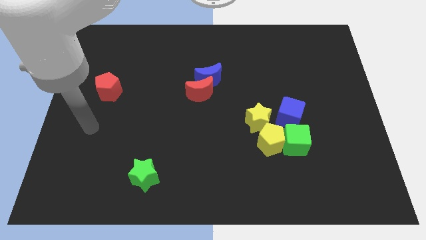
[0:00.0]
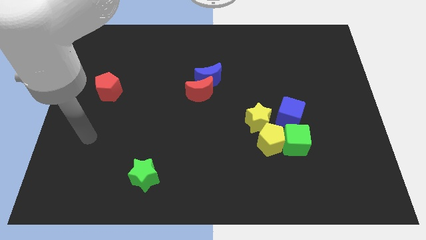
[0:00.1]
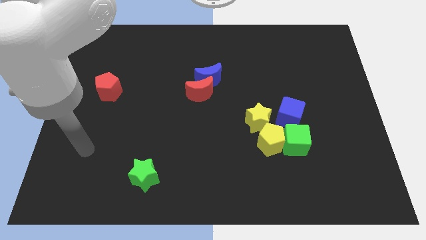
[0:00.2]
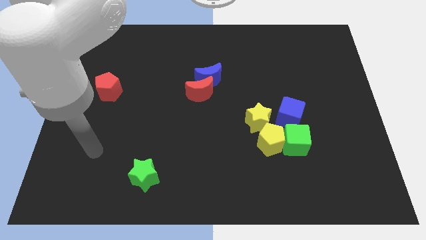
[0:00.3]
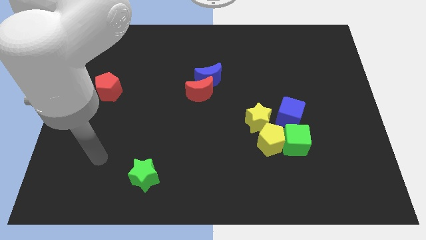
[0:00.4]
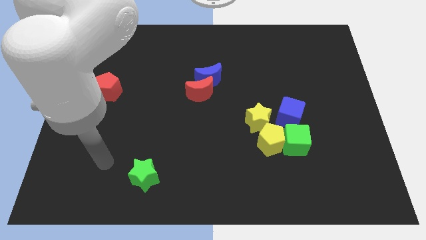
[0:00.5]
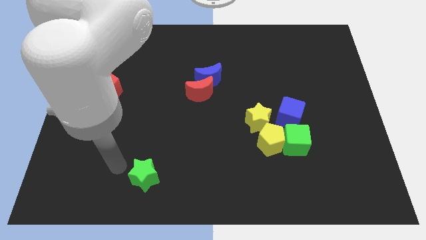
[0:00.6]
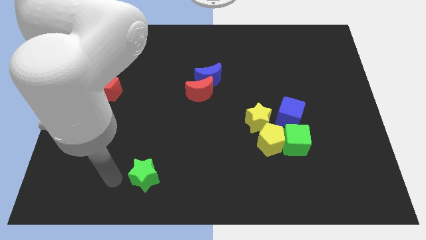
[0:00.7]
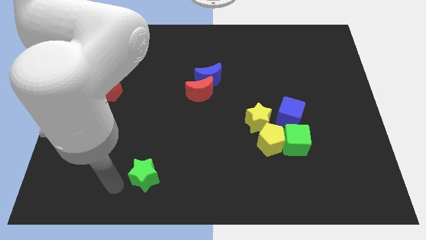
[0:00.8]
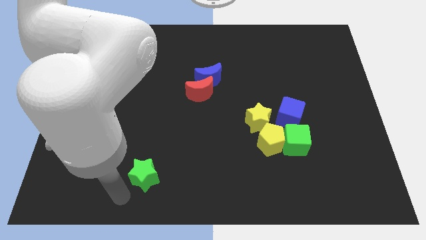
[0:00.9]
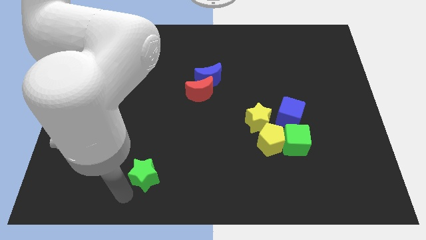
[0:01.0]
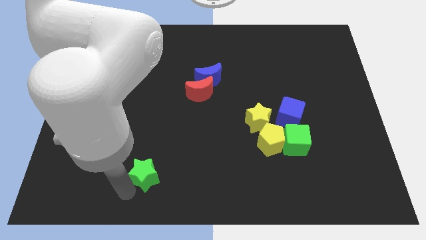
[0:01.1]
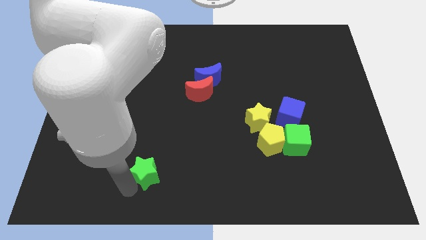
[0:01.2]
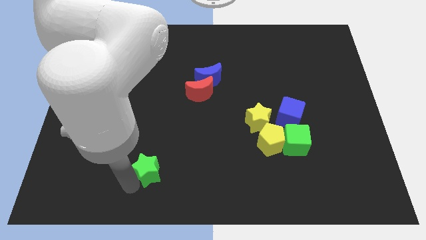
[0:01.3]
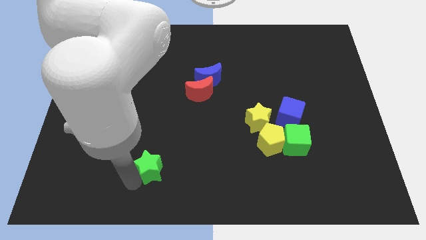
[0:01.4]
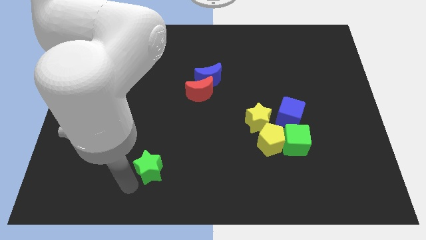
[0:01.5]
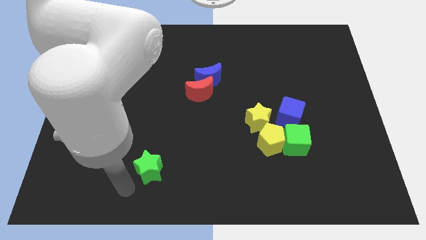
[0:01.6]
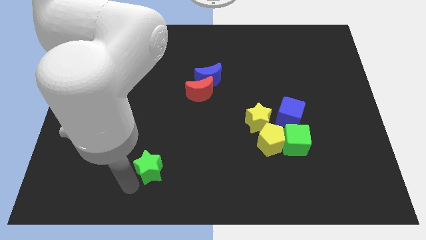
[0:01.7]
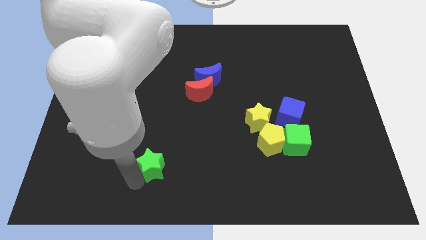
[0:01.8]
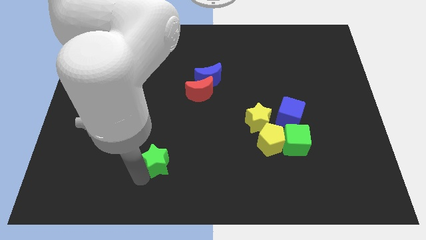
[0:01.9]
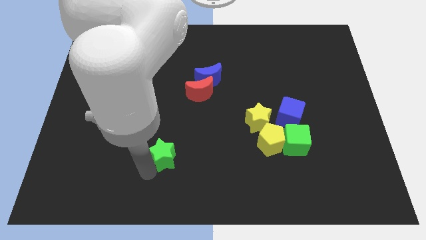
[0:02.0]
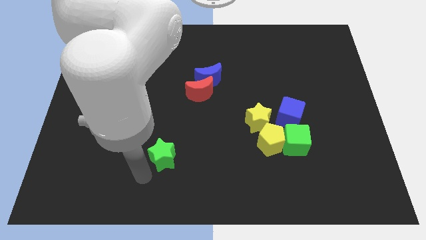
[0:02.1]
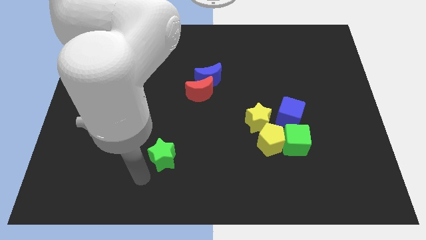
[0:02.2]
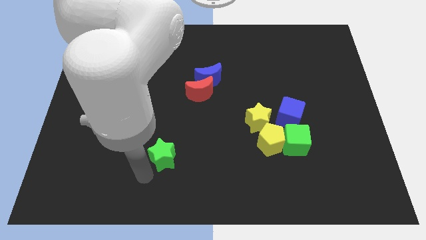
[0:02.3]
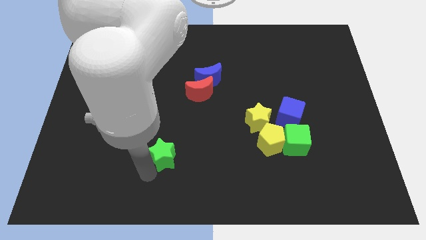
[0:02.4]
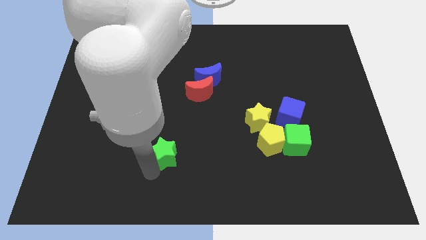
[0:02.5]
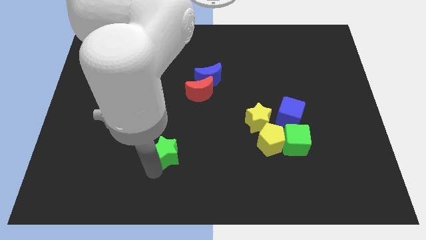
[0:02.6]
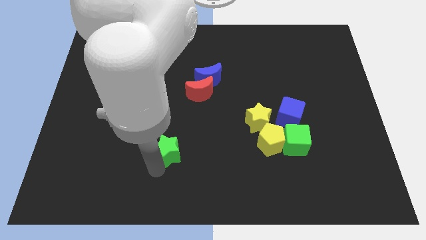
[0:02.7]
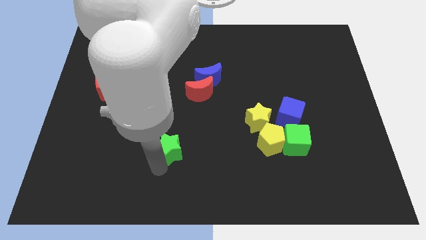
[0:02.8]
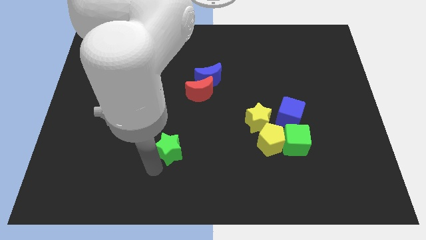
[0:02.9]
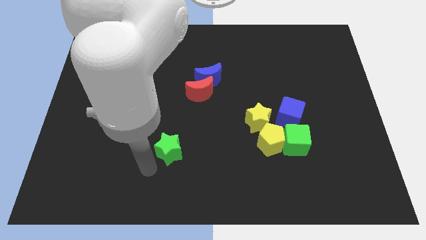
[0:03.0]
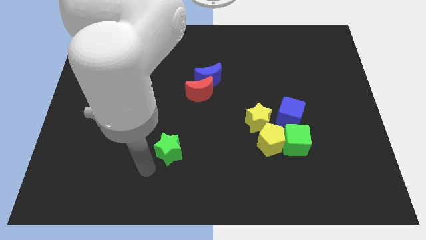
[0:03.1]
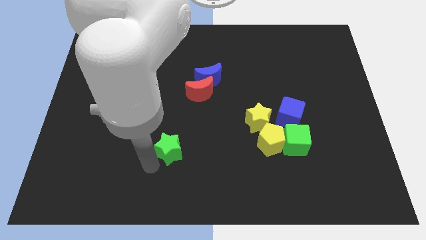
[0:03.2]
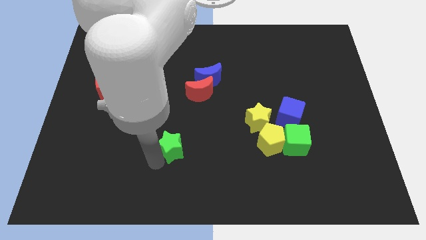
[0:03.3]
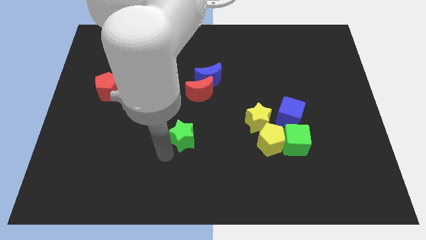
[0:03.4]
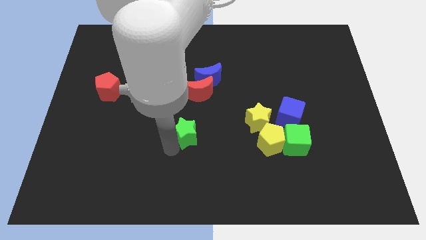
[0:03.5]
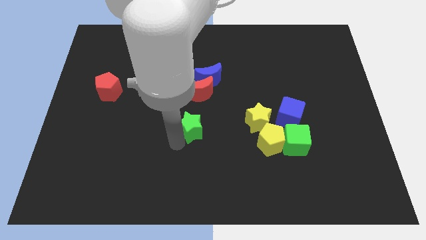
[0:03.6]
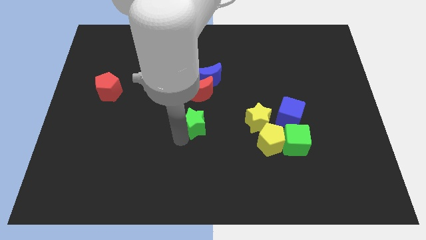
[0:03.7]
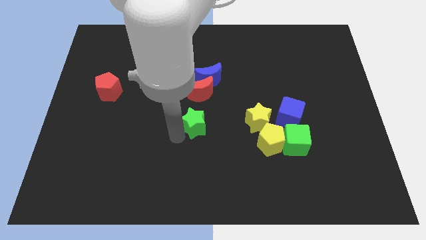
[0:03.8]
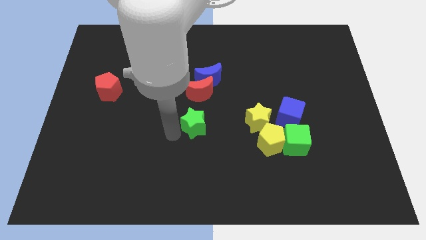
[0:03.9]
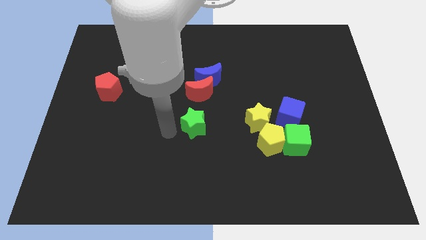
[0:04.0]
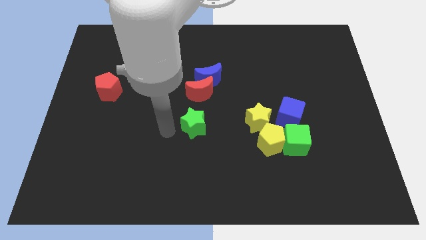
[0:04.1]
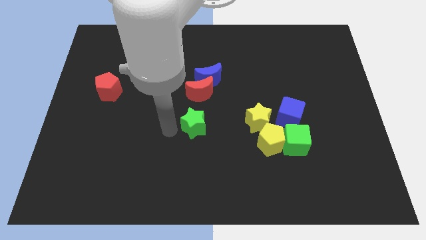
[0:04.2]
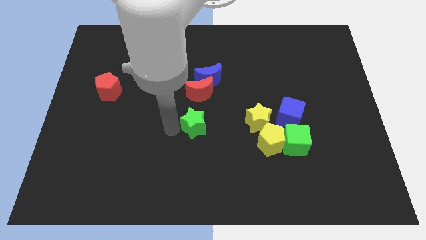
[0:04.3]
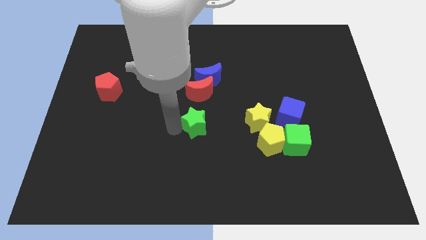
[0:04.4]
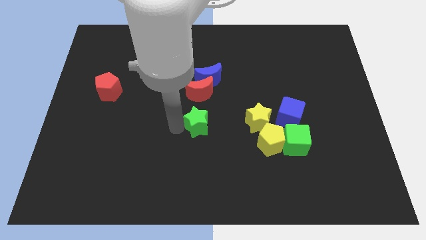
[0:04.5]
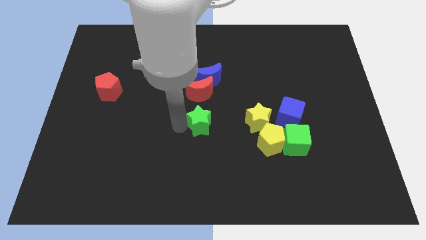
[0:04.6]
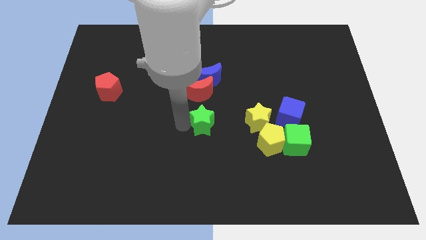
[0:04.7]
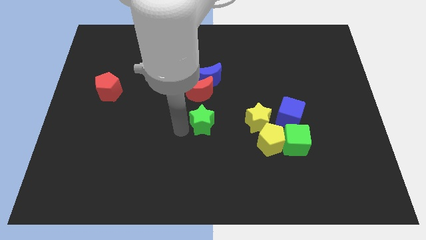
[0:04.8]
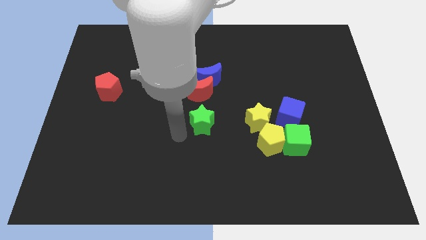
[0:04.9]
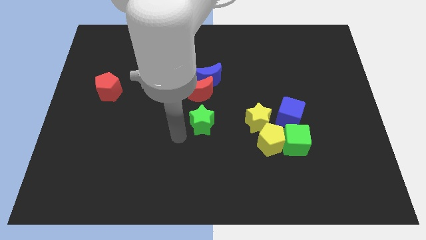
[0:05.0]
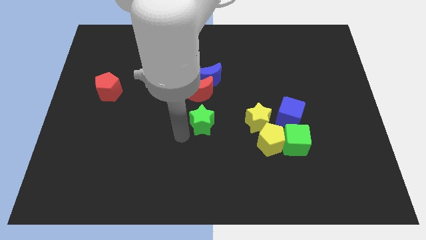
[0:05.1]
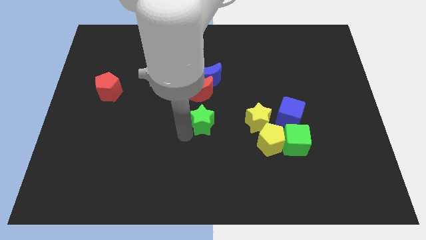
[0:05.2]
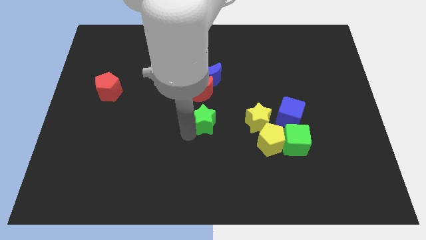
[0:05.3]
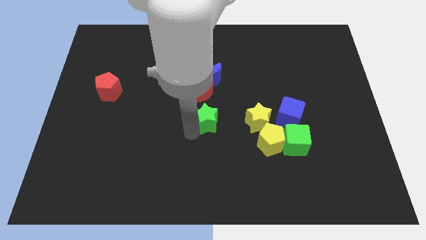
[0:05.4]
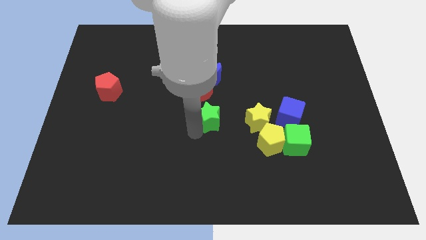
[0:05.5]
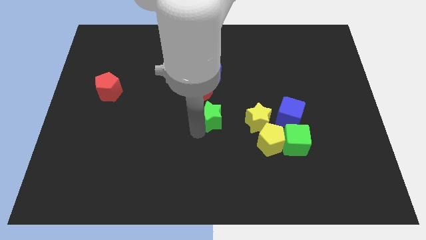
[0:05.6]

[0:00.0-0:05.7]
slide the green star diagonally up and to the right

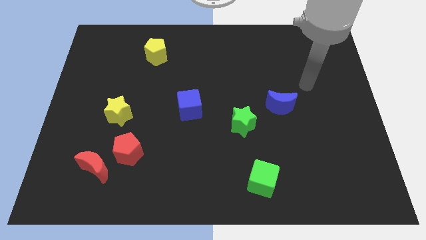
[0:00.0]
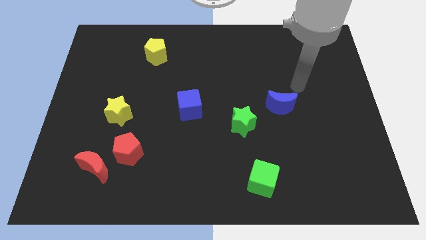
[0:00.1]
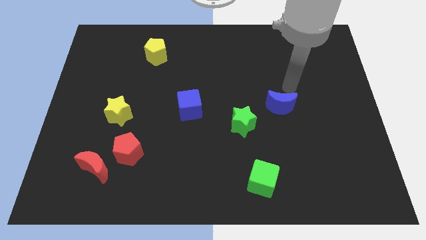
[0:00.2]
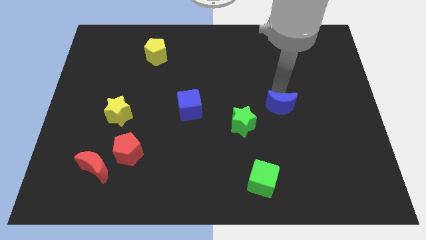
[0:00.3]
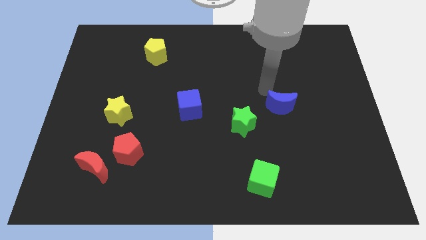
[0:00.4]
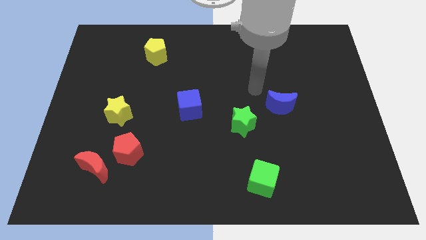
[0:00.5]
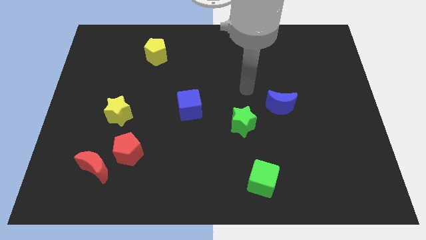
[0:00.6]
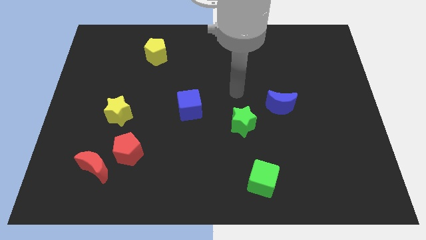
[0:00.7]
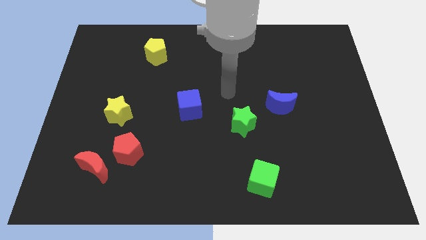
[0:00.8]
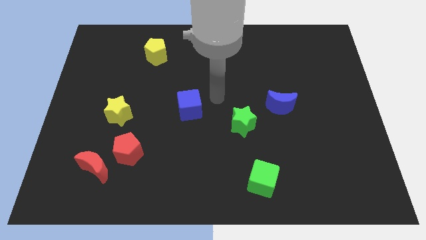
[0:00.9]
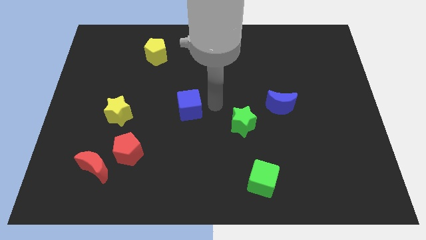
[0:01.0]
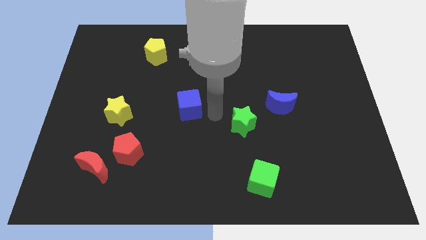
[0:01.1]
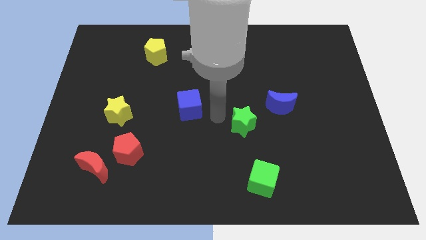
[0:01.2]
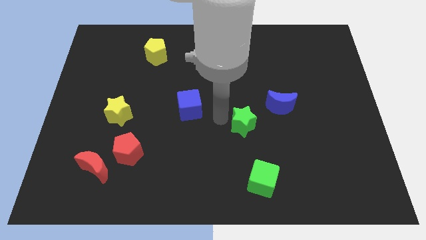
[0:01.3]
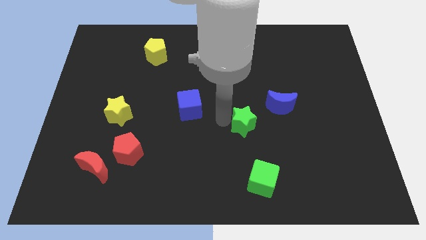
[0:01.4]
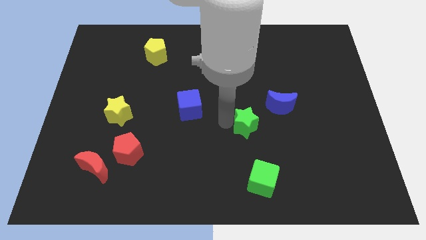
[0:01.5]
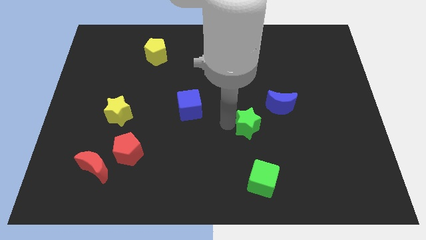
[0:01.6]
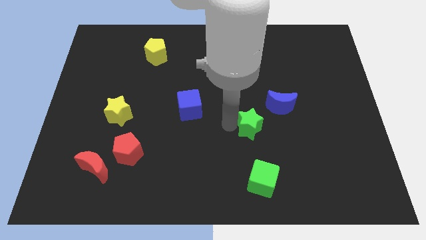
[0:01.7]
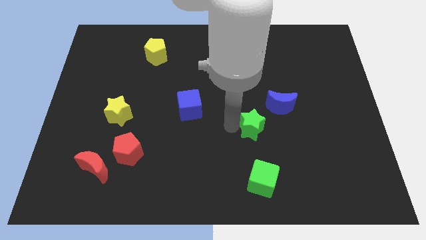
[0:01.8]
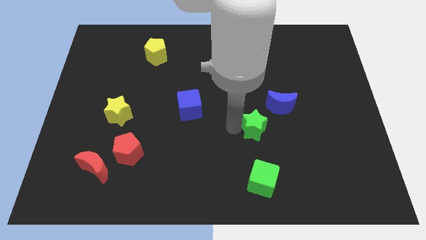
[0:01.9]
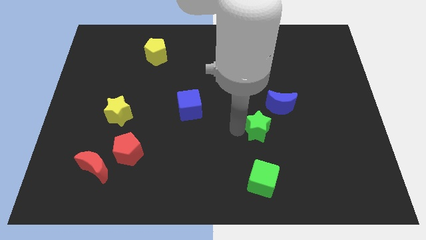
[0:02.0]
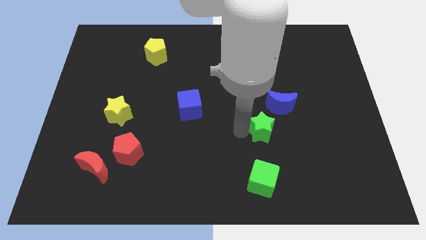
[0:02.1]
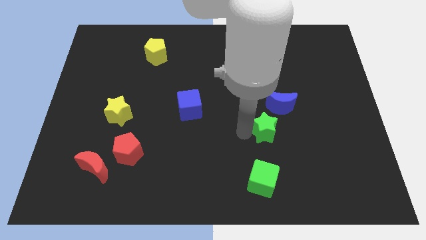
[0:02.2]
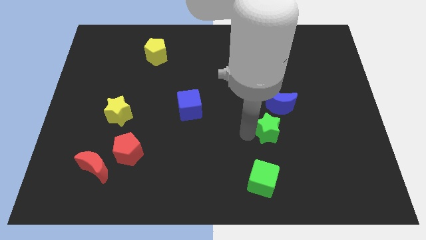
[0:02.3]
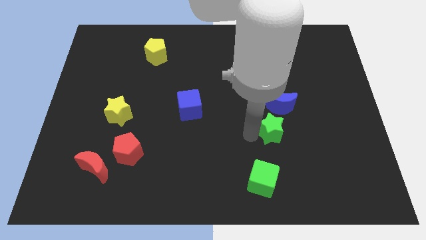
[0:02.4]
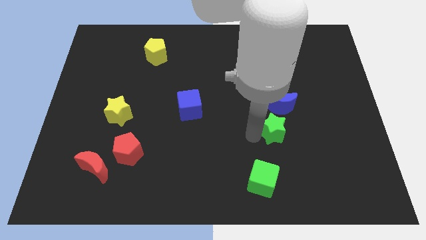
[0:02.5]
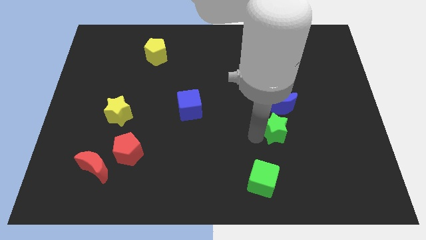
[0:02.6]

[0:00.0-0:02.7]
move the green star a little to the right
